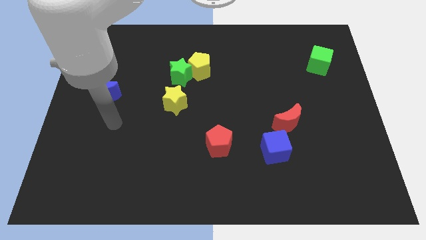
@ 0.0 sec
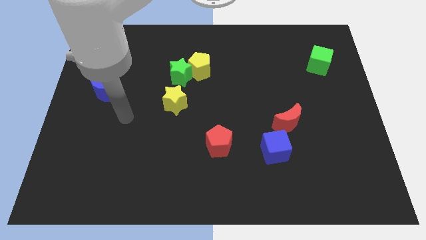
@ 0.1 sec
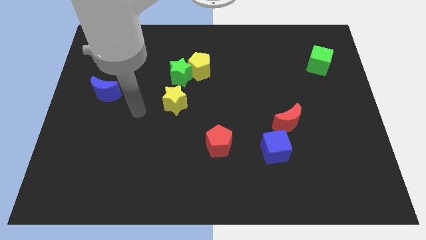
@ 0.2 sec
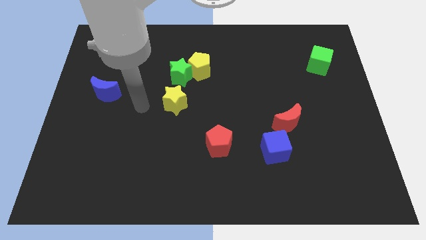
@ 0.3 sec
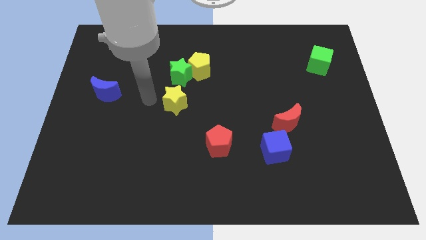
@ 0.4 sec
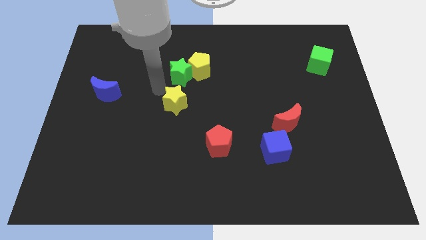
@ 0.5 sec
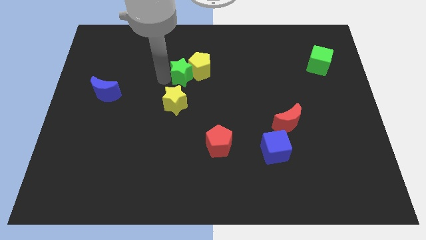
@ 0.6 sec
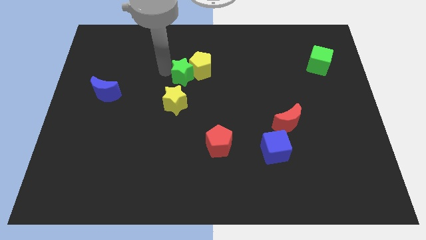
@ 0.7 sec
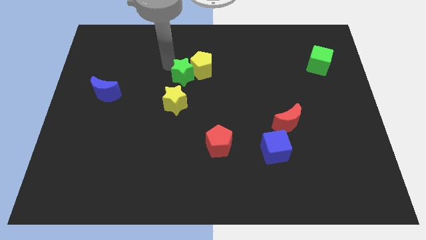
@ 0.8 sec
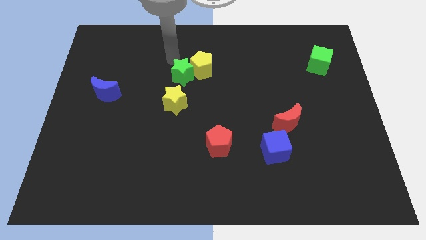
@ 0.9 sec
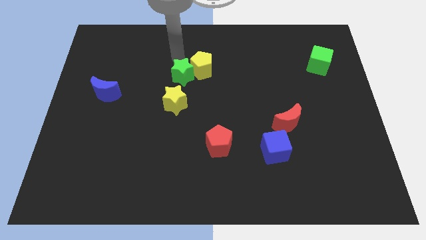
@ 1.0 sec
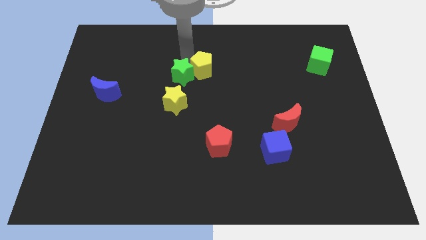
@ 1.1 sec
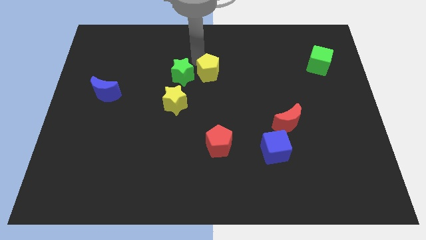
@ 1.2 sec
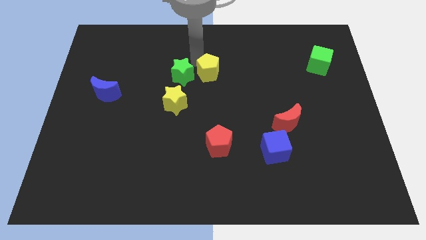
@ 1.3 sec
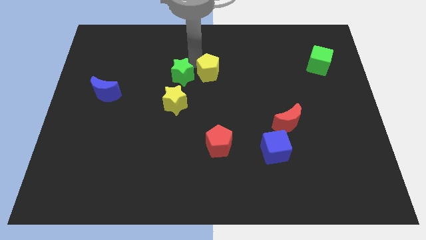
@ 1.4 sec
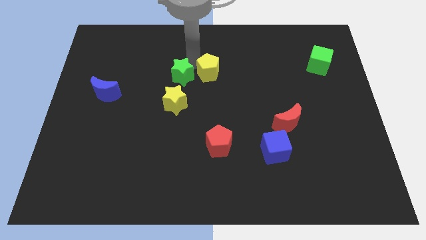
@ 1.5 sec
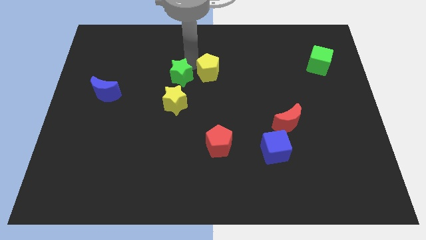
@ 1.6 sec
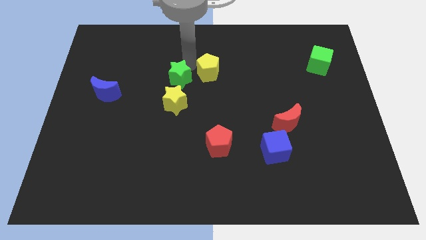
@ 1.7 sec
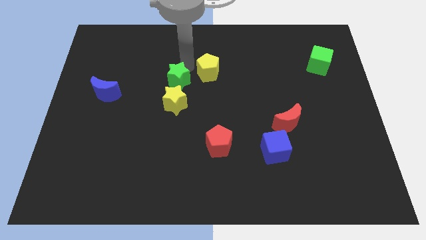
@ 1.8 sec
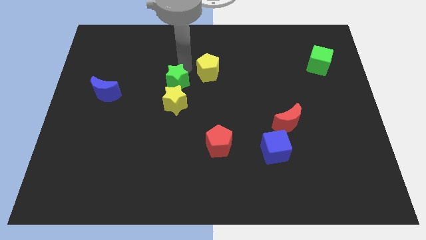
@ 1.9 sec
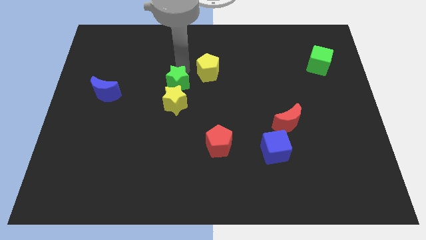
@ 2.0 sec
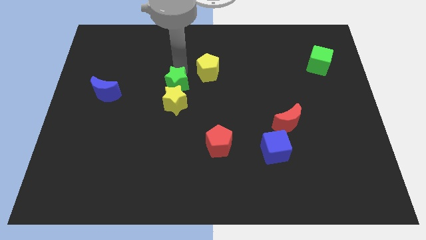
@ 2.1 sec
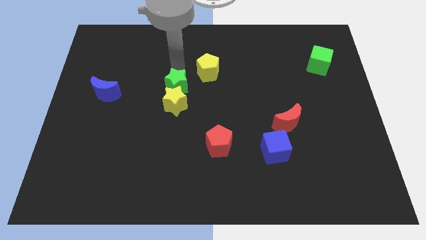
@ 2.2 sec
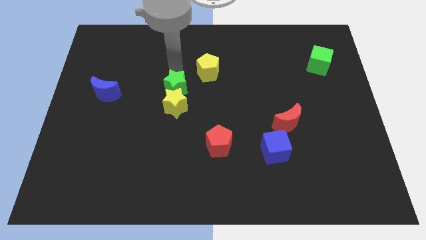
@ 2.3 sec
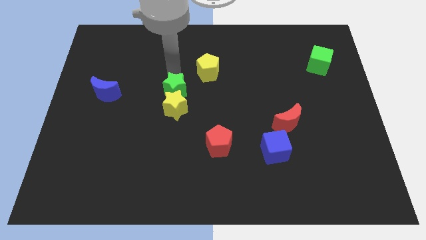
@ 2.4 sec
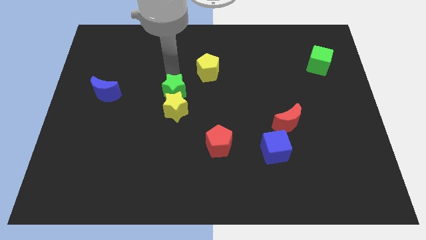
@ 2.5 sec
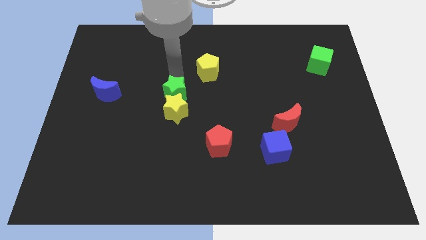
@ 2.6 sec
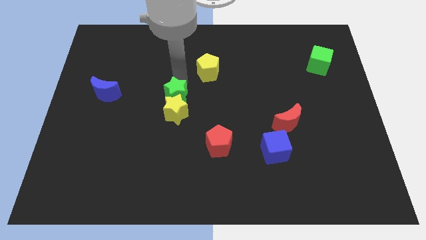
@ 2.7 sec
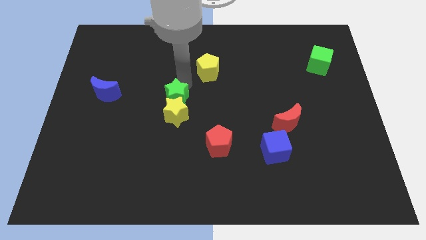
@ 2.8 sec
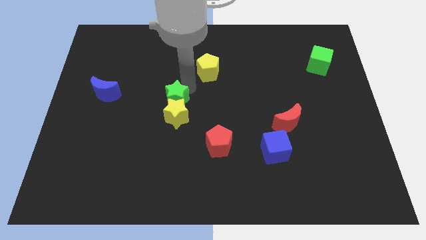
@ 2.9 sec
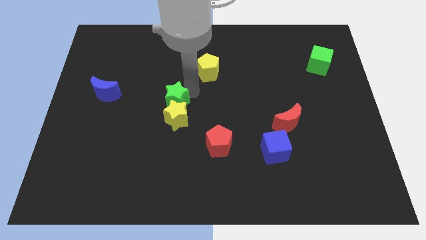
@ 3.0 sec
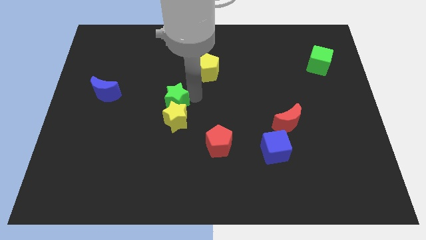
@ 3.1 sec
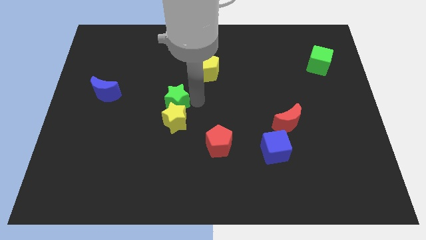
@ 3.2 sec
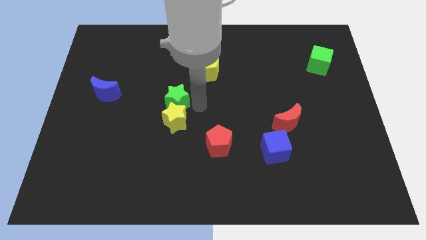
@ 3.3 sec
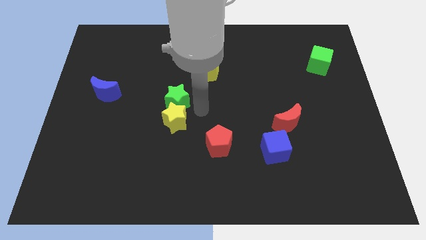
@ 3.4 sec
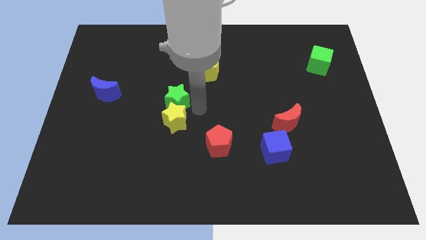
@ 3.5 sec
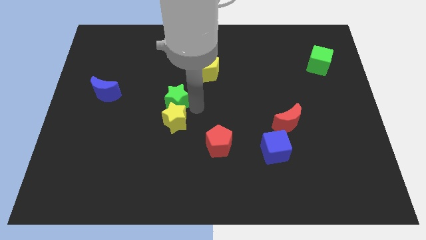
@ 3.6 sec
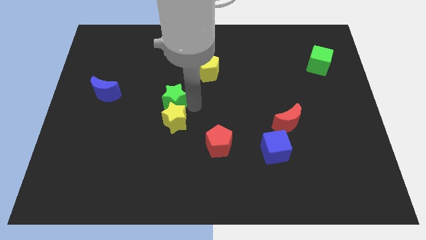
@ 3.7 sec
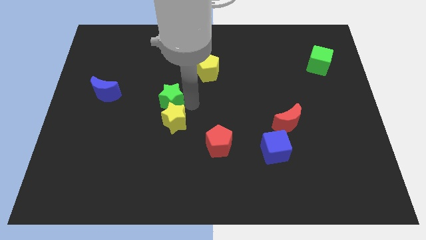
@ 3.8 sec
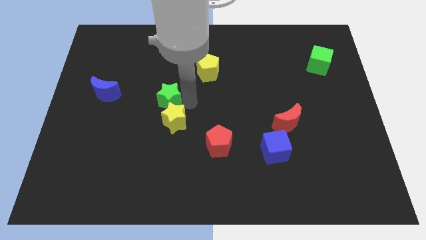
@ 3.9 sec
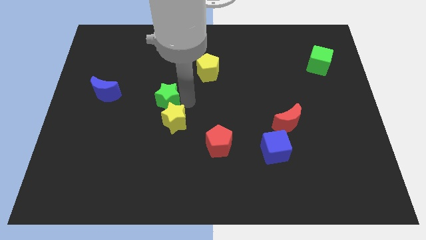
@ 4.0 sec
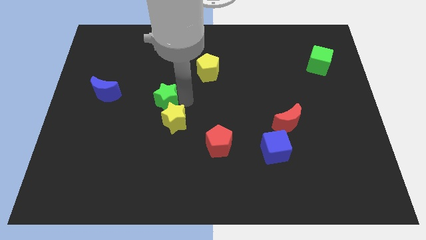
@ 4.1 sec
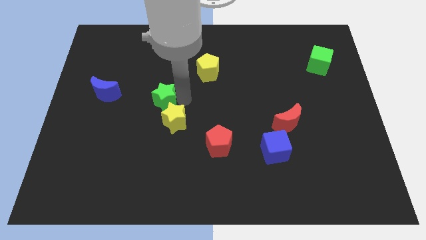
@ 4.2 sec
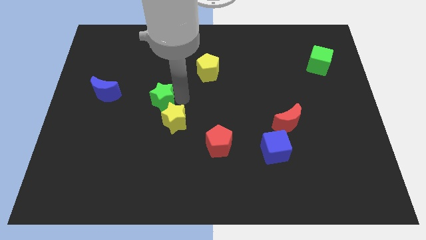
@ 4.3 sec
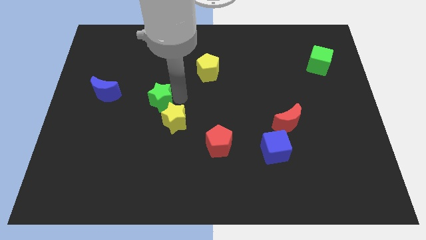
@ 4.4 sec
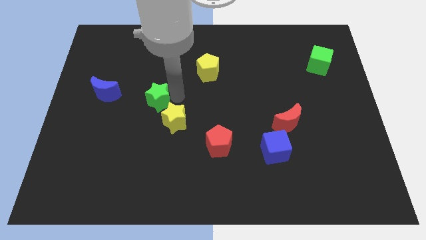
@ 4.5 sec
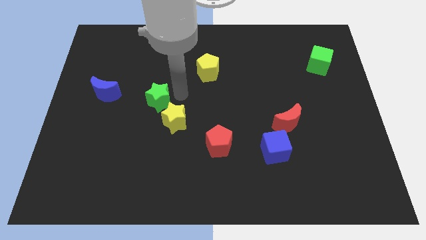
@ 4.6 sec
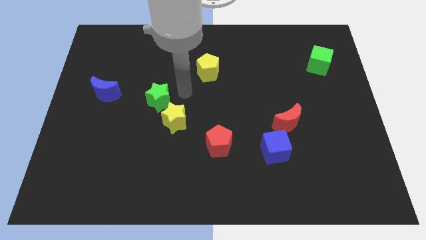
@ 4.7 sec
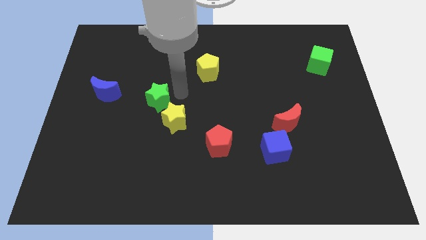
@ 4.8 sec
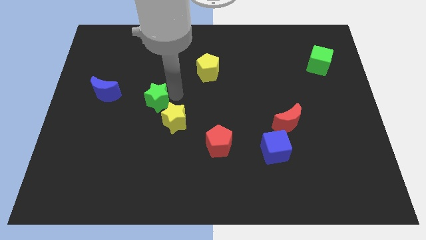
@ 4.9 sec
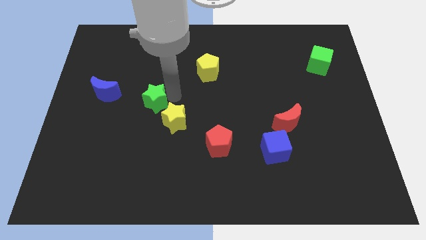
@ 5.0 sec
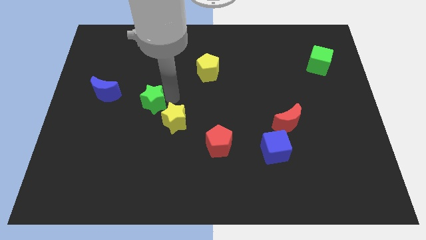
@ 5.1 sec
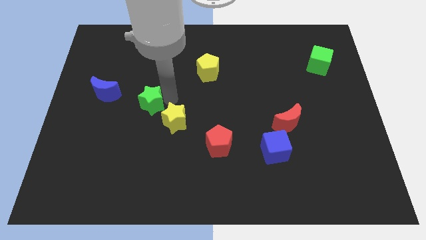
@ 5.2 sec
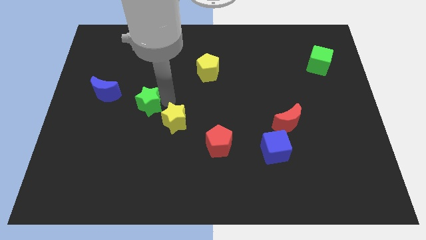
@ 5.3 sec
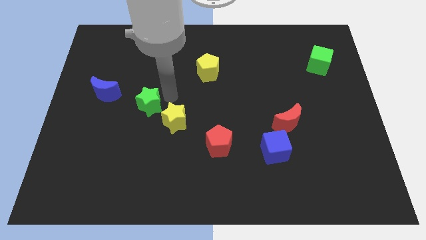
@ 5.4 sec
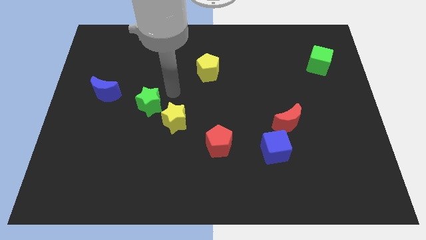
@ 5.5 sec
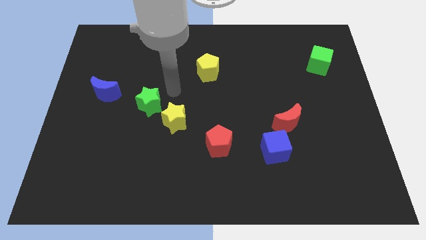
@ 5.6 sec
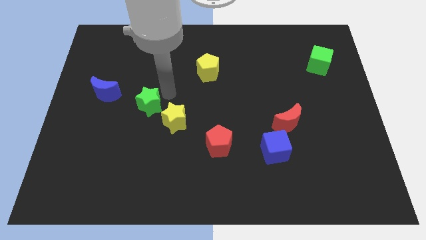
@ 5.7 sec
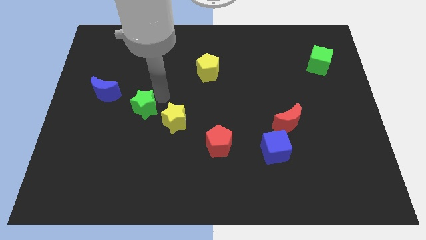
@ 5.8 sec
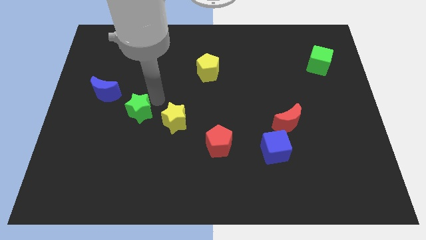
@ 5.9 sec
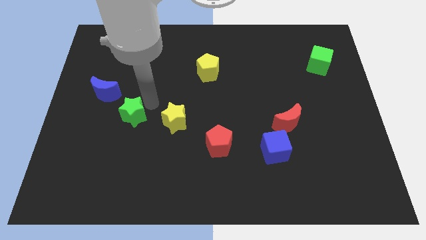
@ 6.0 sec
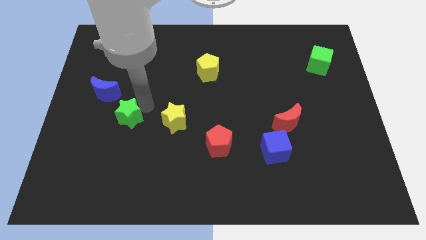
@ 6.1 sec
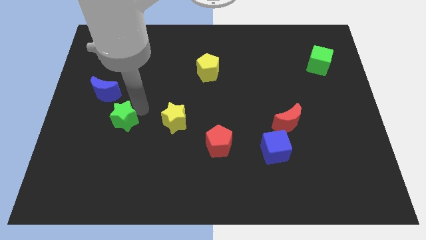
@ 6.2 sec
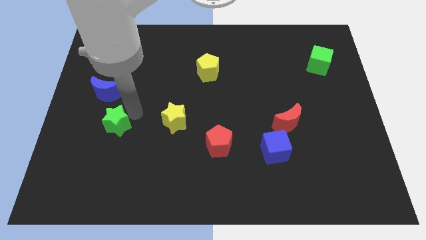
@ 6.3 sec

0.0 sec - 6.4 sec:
put the green star to the bottom of the blue moon

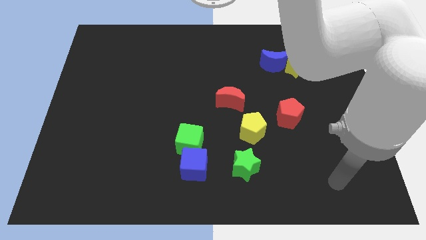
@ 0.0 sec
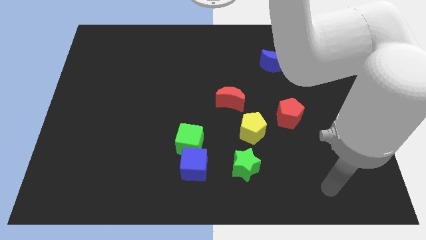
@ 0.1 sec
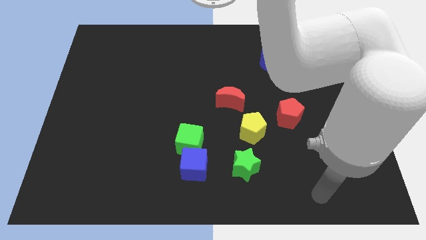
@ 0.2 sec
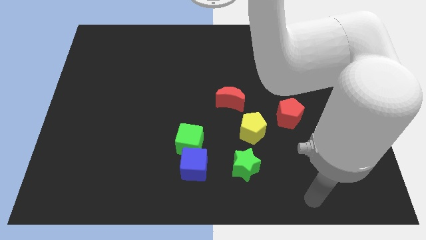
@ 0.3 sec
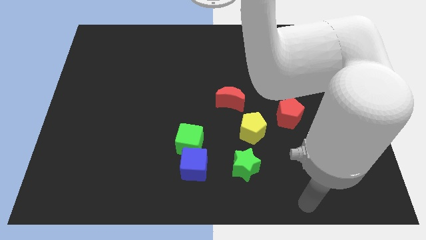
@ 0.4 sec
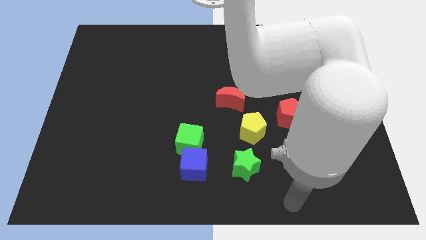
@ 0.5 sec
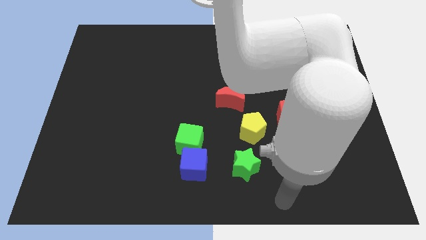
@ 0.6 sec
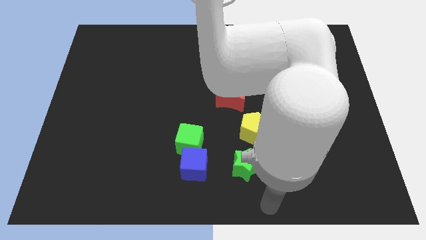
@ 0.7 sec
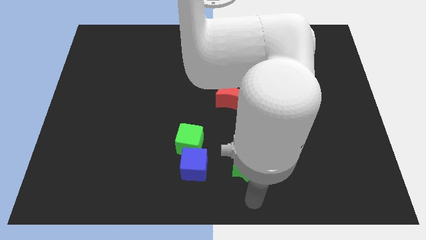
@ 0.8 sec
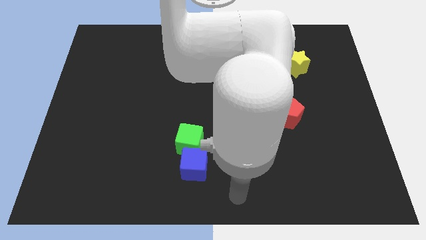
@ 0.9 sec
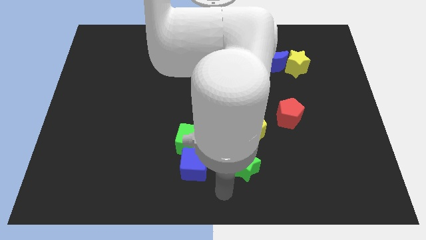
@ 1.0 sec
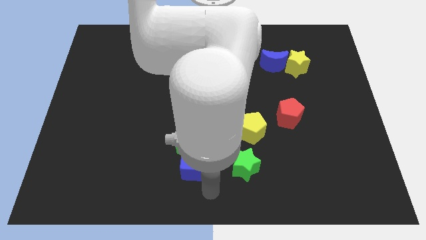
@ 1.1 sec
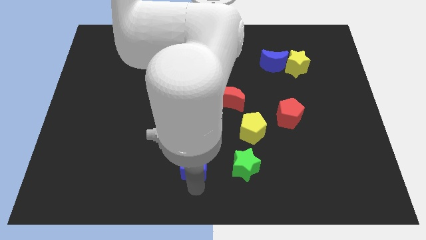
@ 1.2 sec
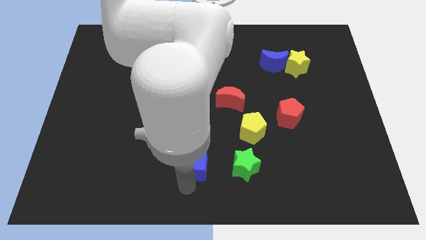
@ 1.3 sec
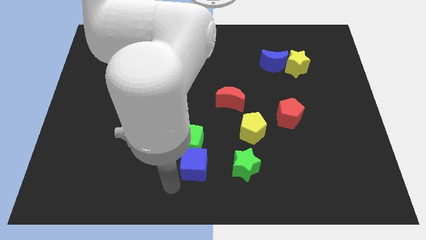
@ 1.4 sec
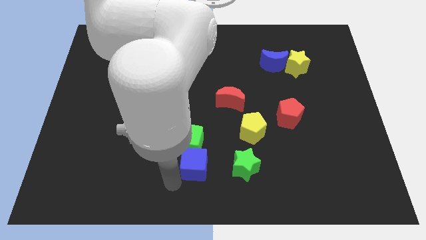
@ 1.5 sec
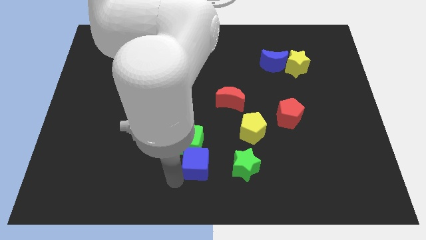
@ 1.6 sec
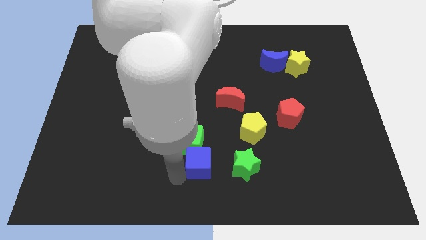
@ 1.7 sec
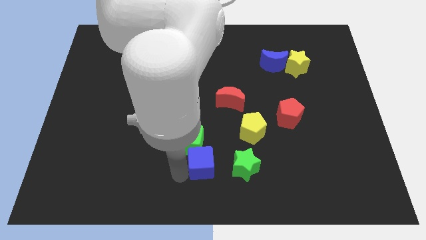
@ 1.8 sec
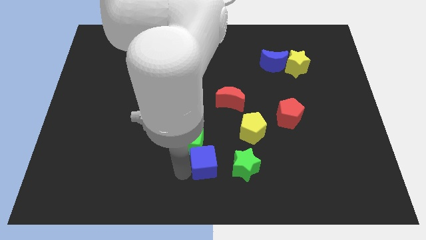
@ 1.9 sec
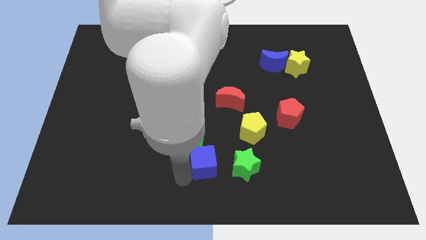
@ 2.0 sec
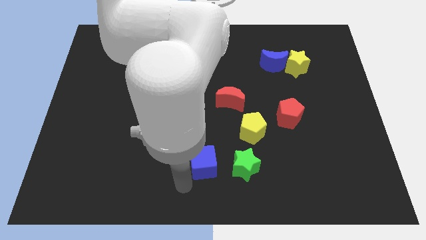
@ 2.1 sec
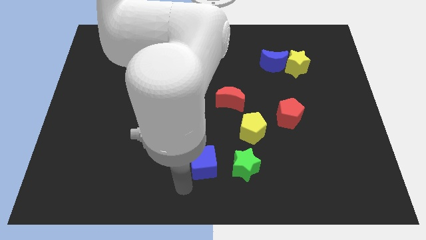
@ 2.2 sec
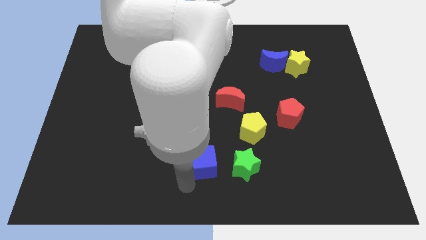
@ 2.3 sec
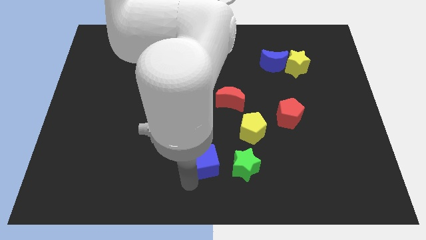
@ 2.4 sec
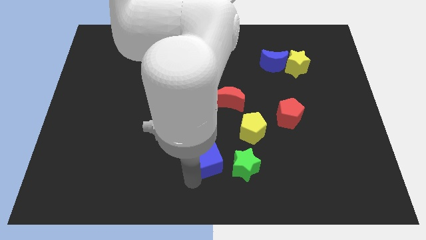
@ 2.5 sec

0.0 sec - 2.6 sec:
push the blue cube diagonally up and to the left of the green star
